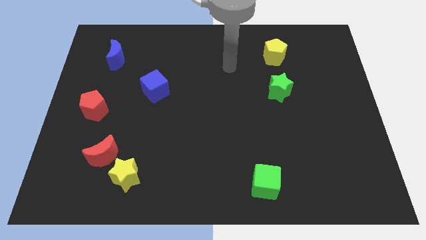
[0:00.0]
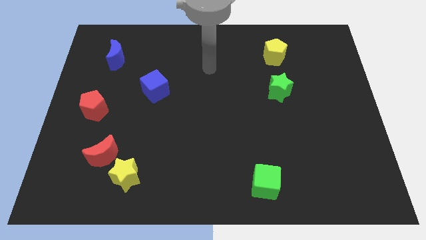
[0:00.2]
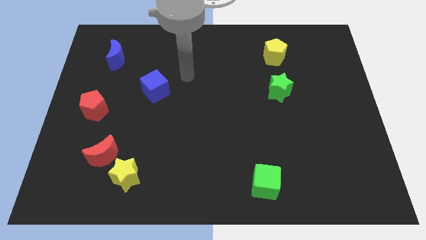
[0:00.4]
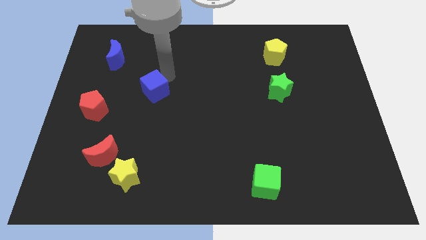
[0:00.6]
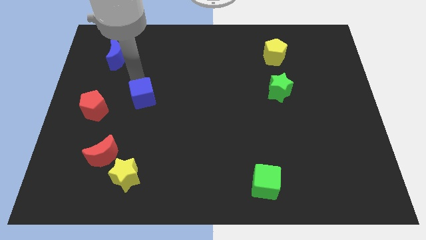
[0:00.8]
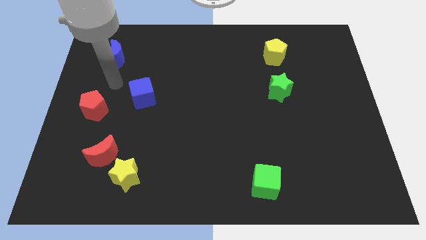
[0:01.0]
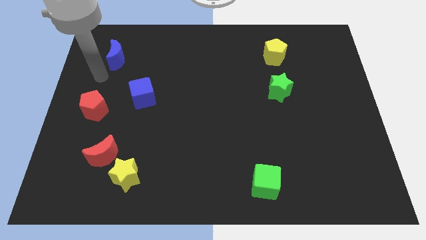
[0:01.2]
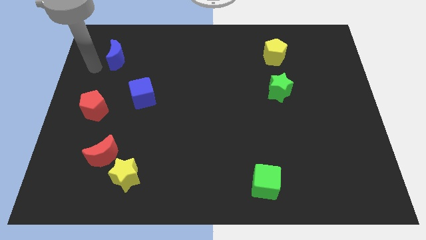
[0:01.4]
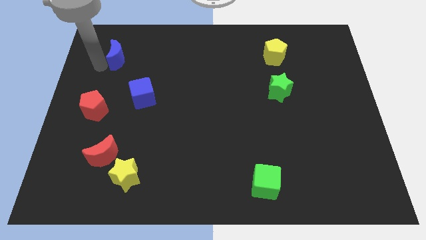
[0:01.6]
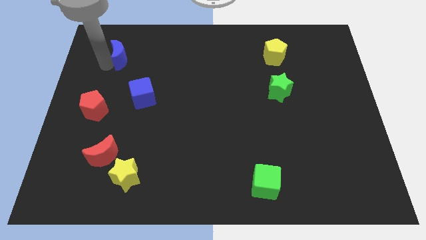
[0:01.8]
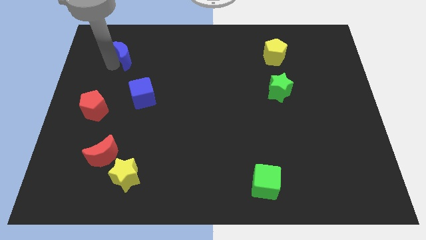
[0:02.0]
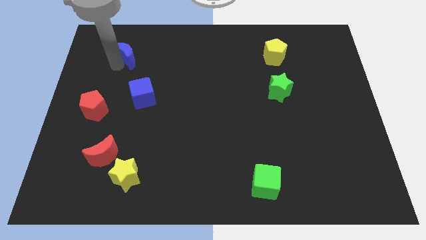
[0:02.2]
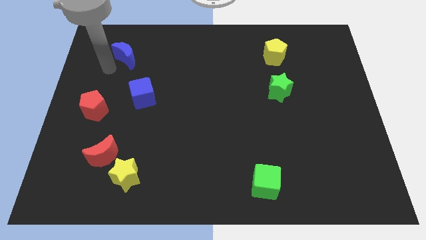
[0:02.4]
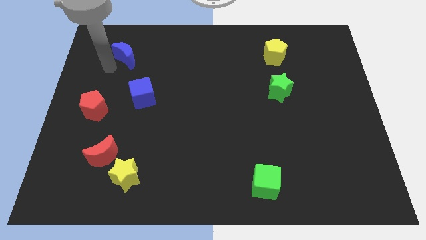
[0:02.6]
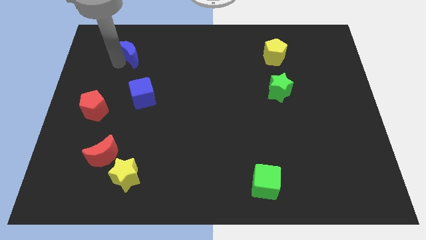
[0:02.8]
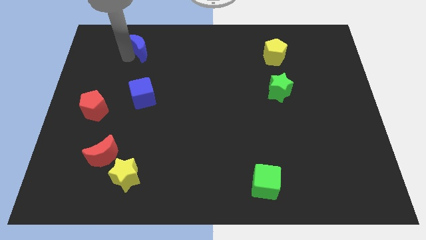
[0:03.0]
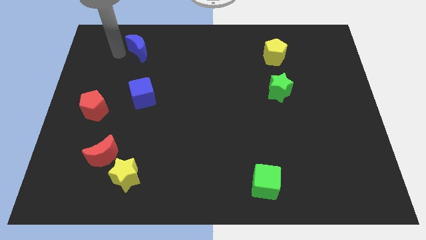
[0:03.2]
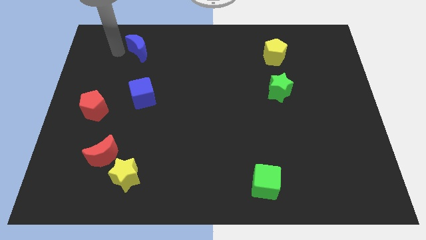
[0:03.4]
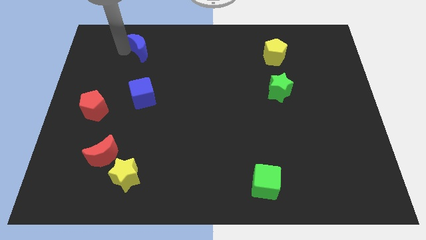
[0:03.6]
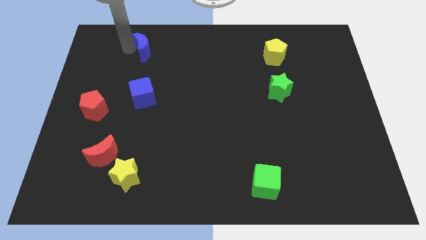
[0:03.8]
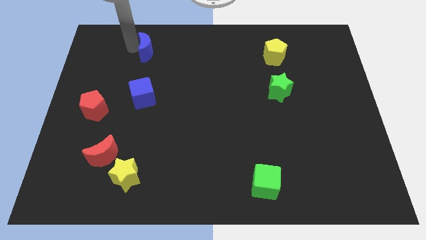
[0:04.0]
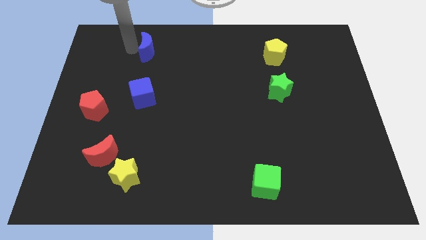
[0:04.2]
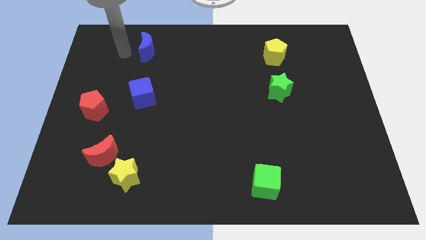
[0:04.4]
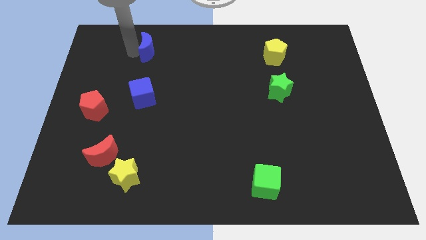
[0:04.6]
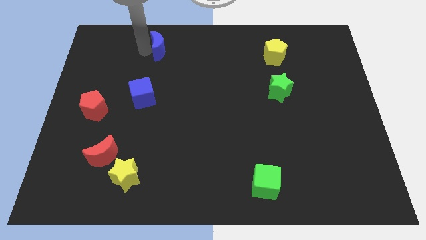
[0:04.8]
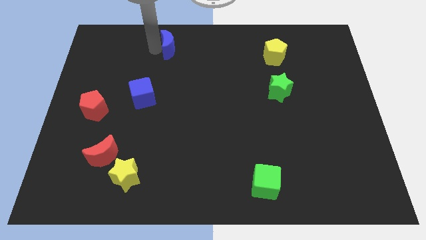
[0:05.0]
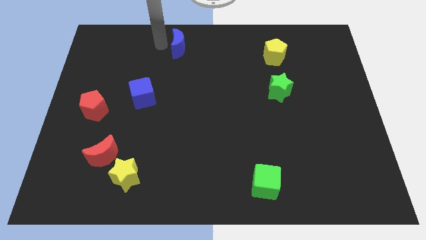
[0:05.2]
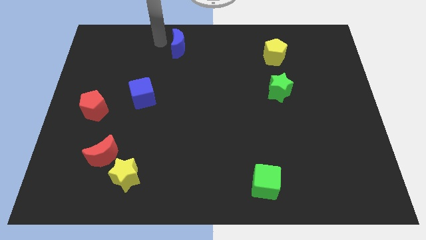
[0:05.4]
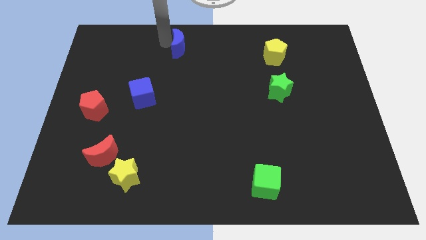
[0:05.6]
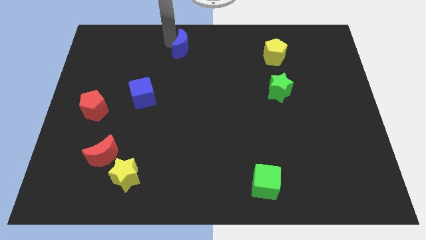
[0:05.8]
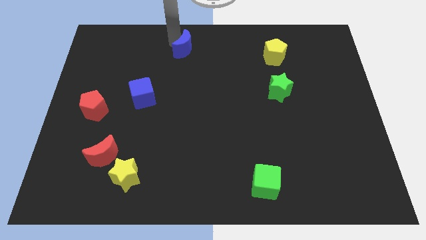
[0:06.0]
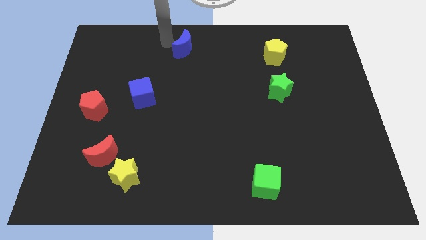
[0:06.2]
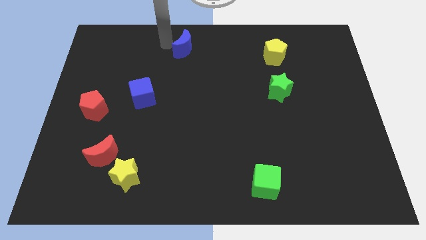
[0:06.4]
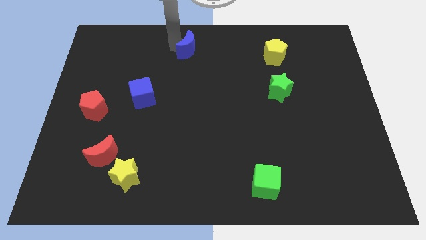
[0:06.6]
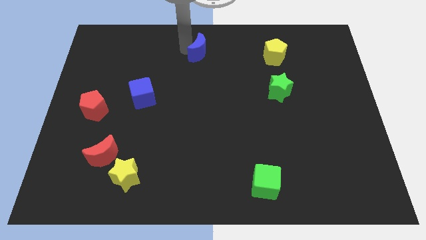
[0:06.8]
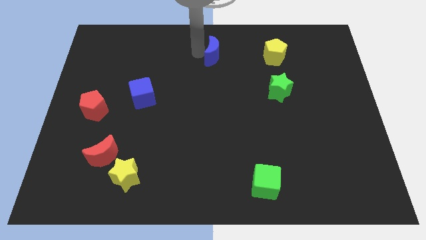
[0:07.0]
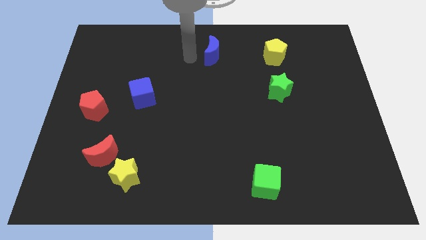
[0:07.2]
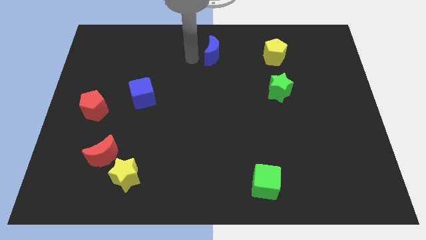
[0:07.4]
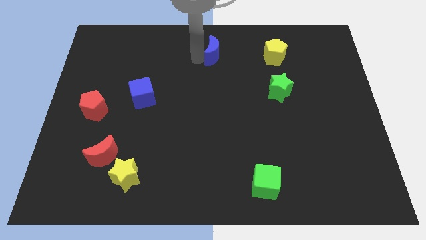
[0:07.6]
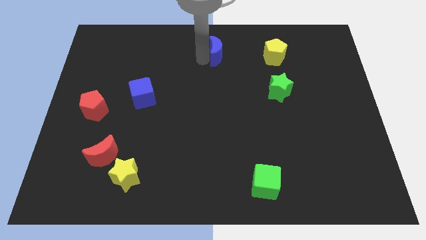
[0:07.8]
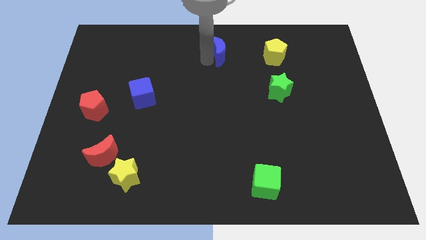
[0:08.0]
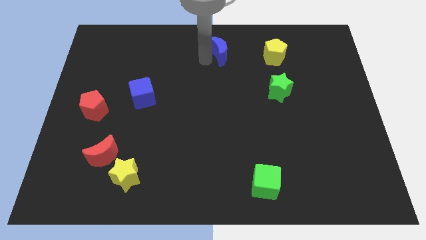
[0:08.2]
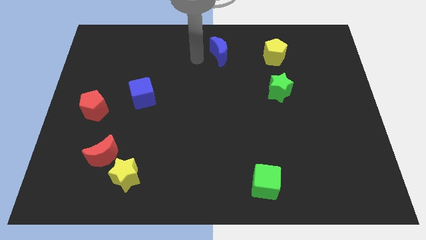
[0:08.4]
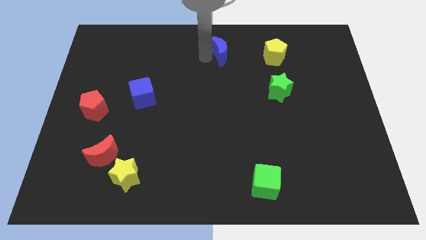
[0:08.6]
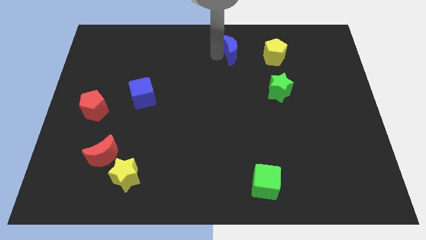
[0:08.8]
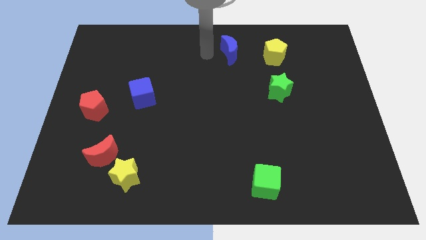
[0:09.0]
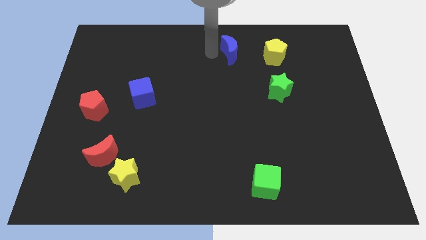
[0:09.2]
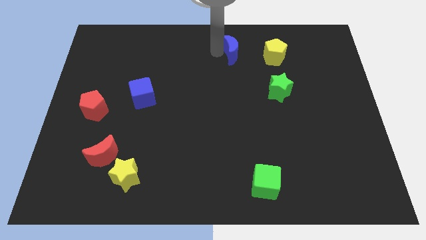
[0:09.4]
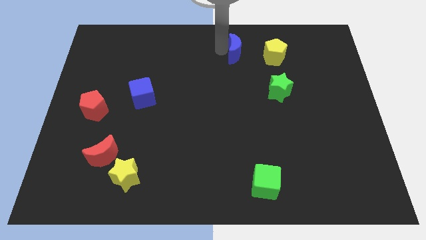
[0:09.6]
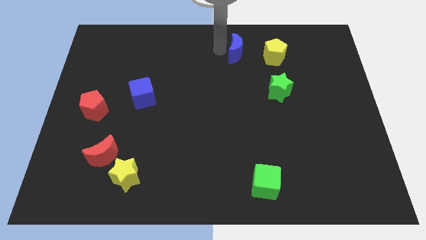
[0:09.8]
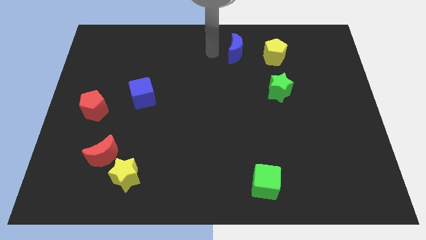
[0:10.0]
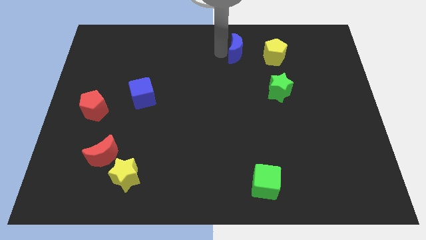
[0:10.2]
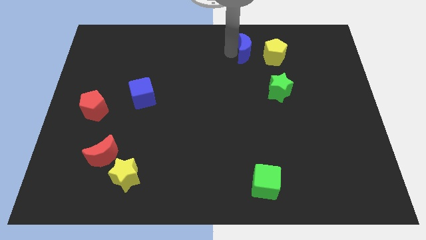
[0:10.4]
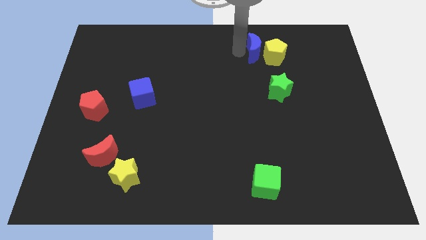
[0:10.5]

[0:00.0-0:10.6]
push the blue moon to the yellow pentagon

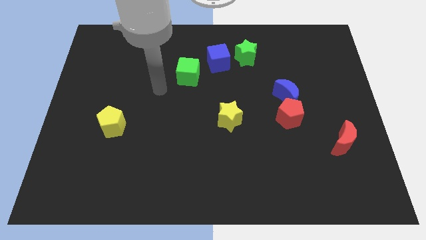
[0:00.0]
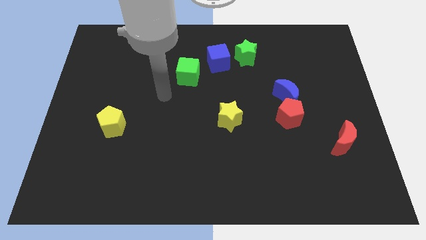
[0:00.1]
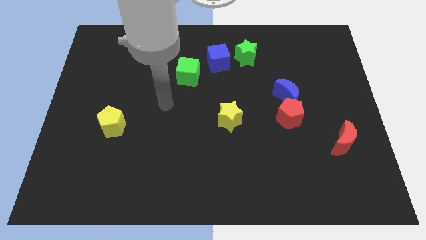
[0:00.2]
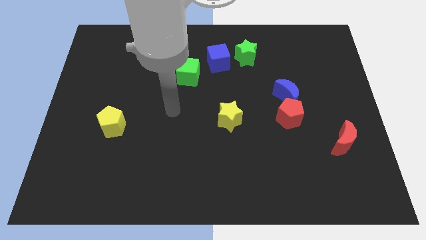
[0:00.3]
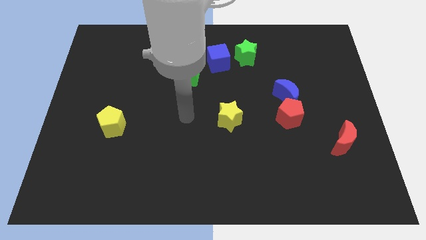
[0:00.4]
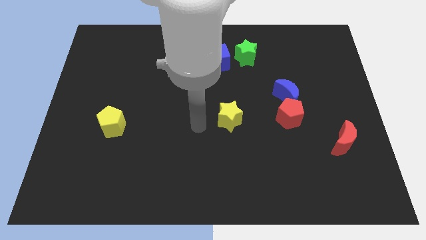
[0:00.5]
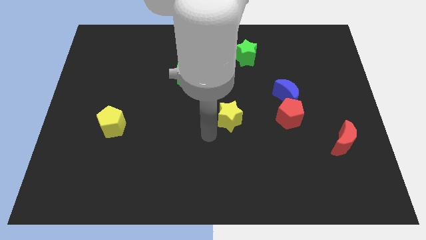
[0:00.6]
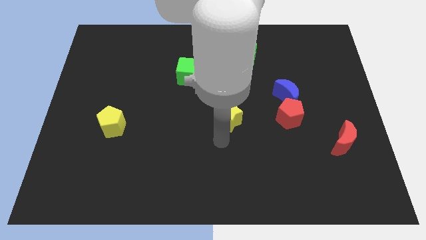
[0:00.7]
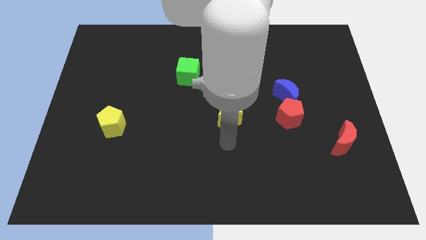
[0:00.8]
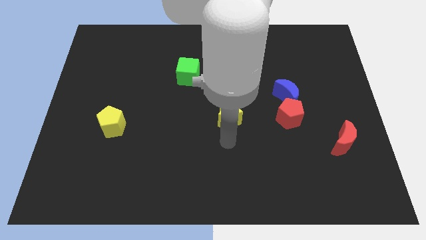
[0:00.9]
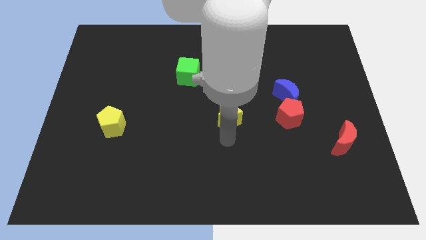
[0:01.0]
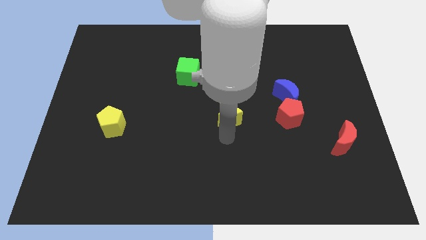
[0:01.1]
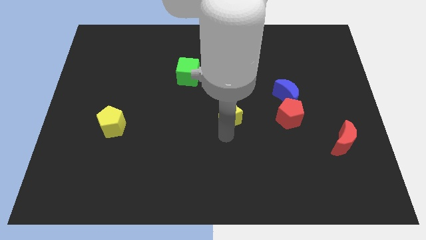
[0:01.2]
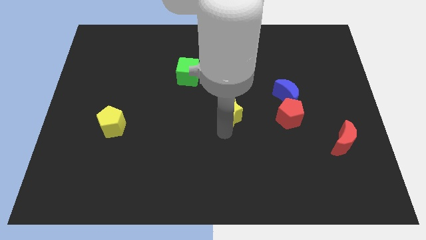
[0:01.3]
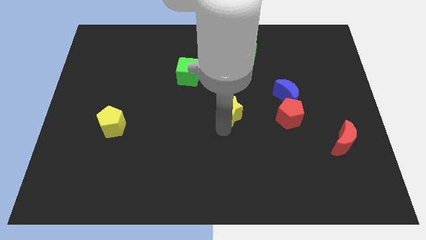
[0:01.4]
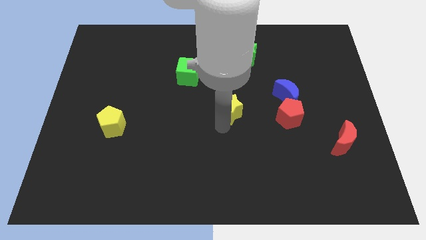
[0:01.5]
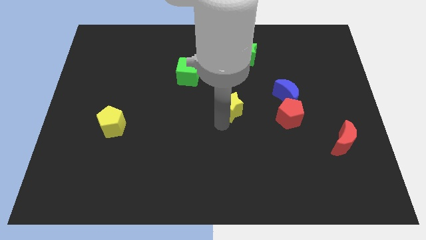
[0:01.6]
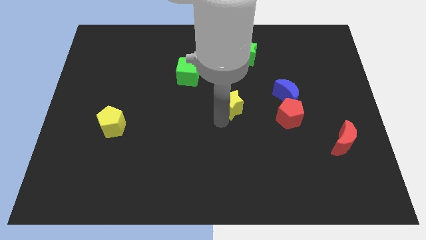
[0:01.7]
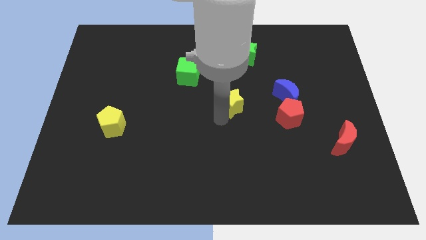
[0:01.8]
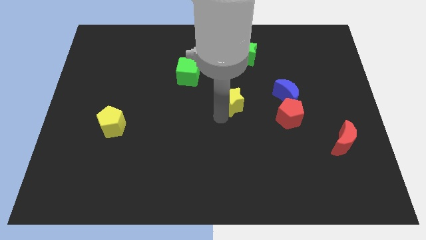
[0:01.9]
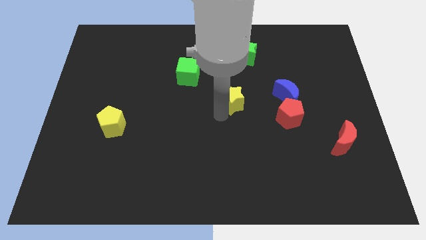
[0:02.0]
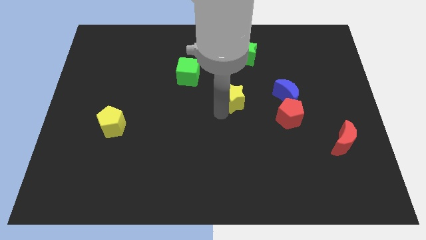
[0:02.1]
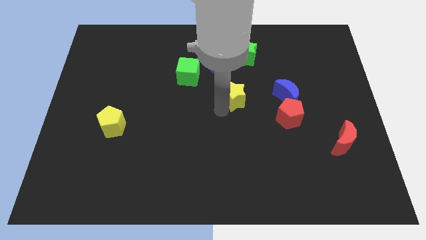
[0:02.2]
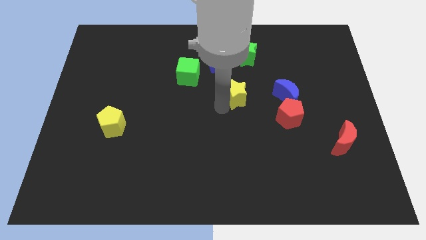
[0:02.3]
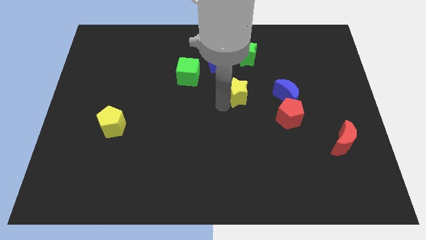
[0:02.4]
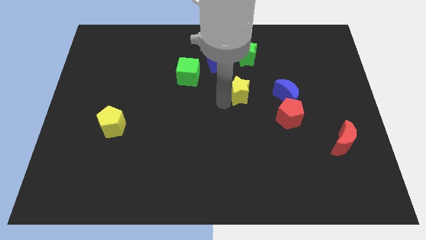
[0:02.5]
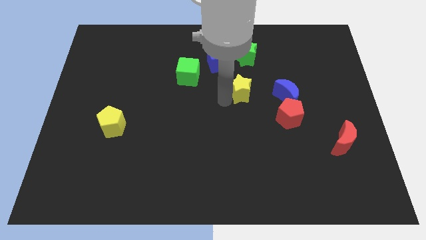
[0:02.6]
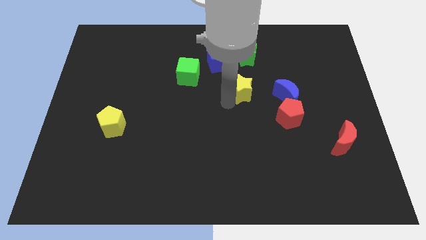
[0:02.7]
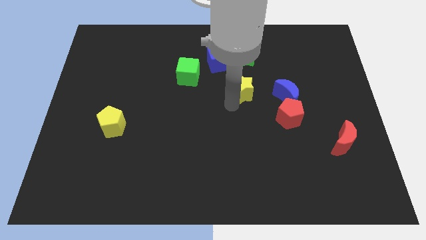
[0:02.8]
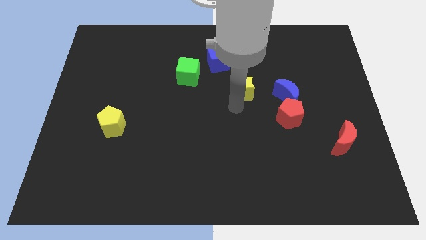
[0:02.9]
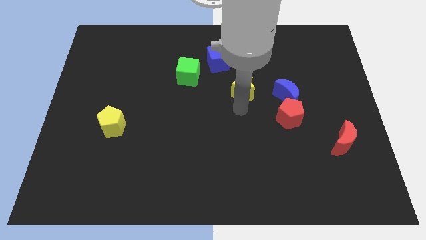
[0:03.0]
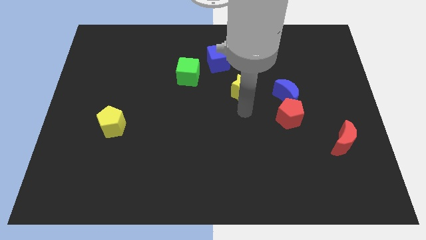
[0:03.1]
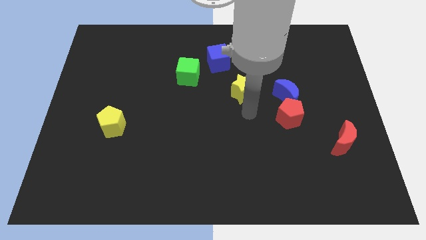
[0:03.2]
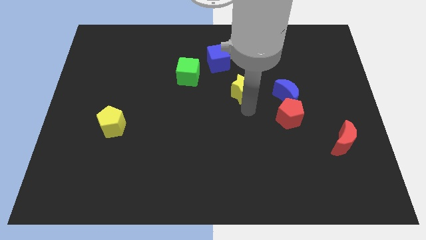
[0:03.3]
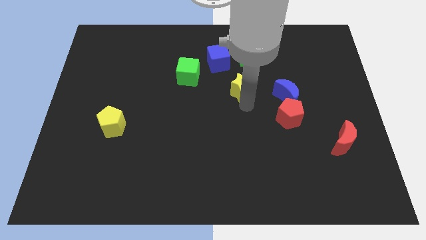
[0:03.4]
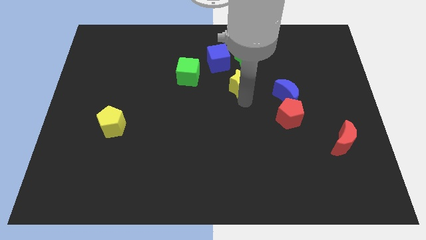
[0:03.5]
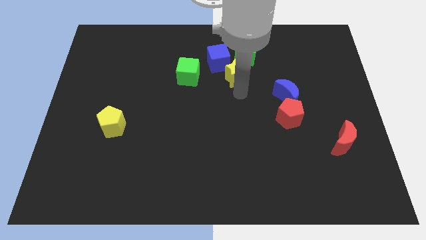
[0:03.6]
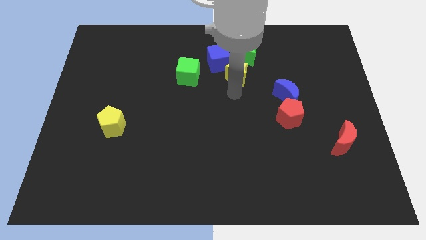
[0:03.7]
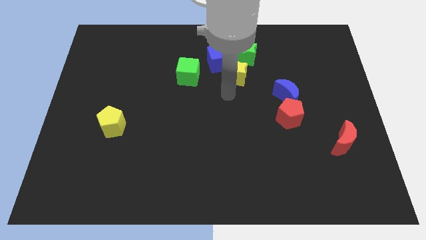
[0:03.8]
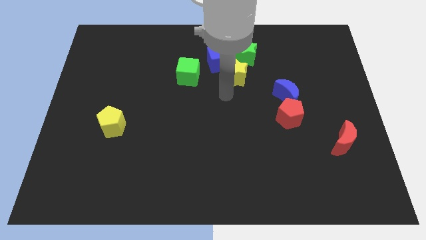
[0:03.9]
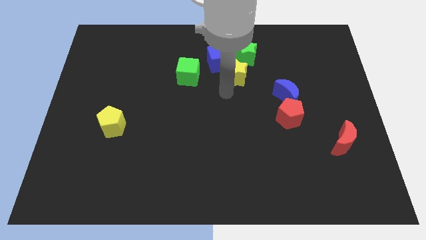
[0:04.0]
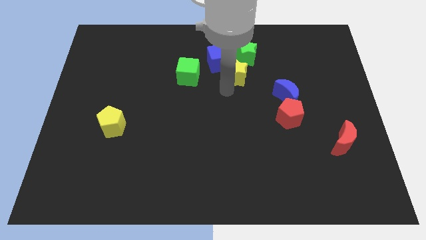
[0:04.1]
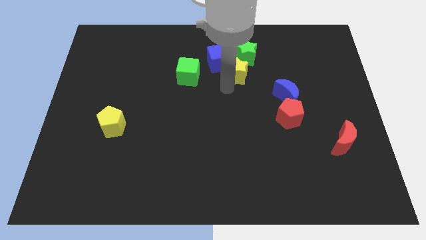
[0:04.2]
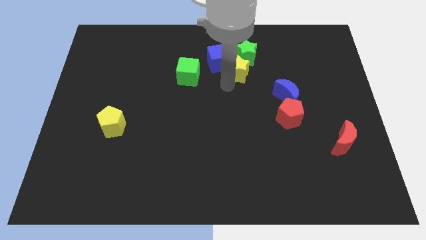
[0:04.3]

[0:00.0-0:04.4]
move the yellow star next to the green star
